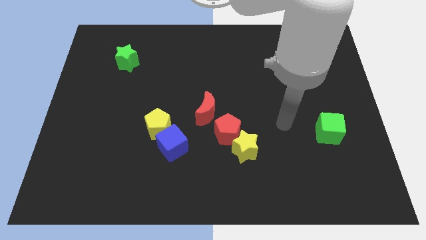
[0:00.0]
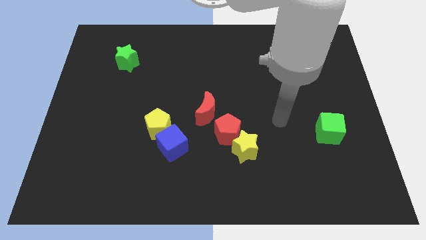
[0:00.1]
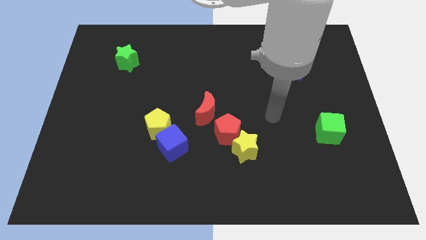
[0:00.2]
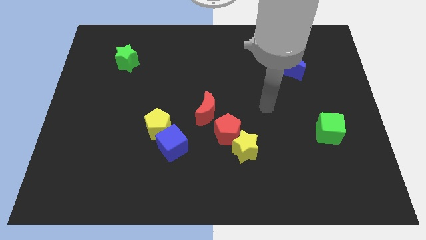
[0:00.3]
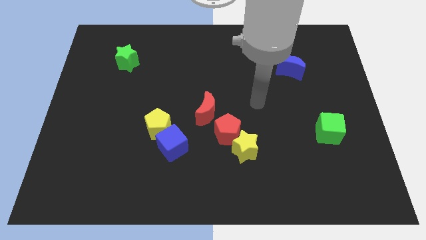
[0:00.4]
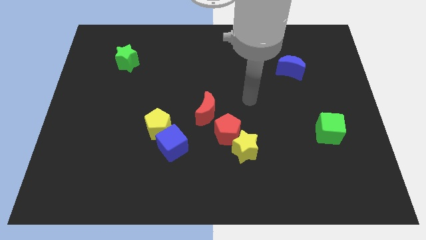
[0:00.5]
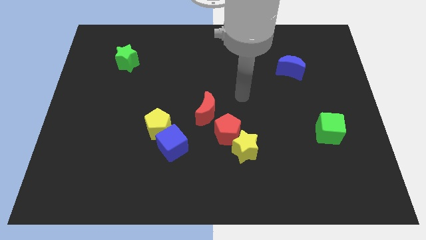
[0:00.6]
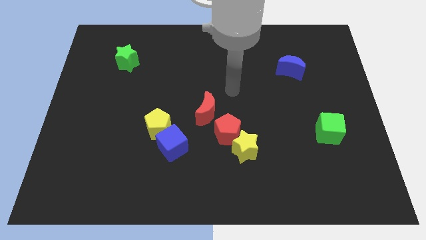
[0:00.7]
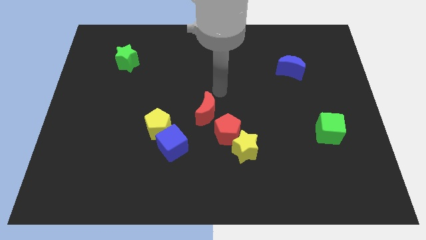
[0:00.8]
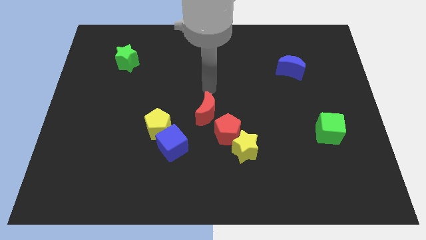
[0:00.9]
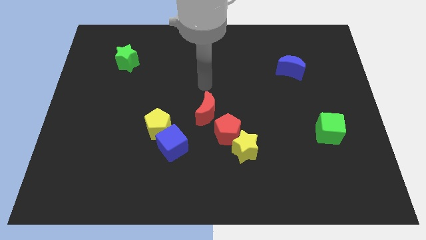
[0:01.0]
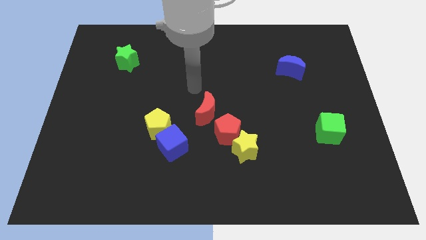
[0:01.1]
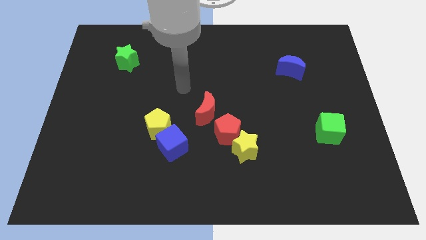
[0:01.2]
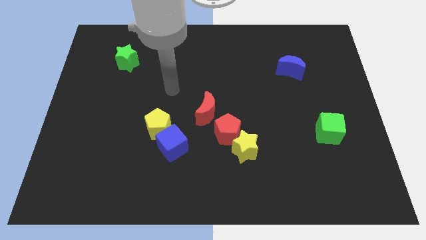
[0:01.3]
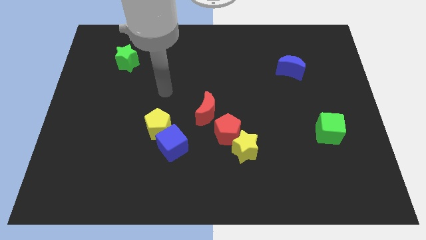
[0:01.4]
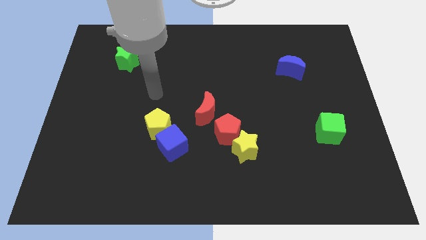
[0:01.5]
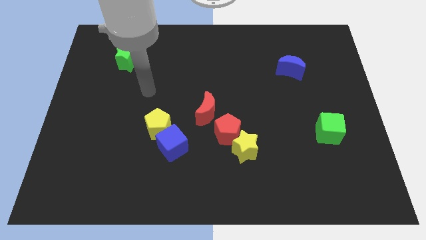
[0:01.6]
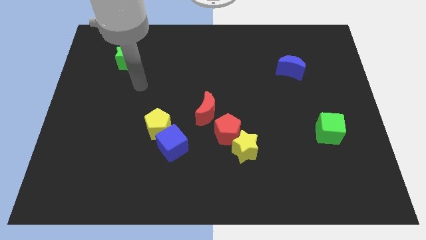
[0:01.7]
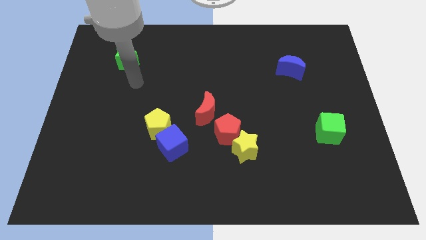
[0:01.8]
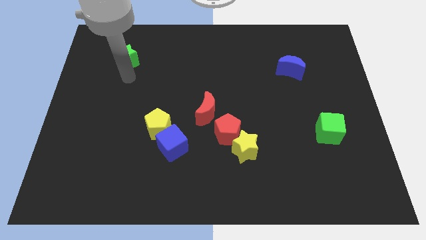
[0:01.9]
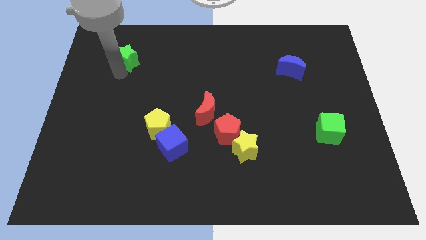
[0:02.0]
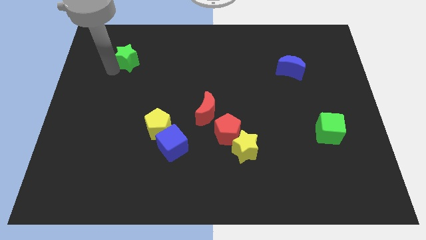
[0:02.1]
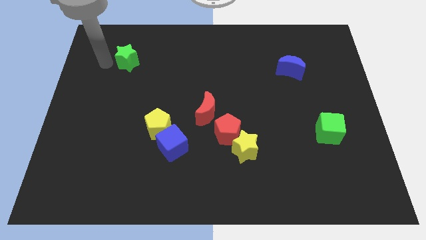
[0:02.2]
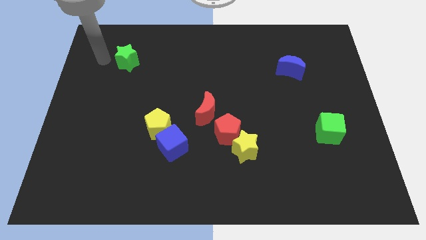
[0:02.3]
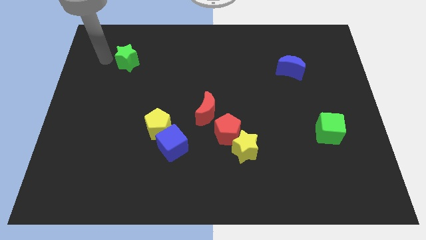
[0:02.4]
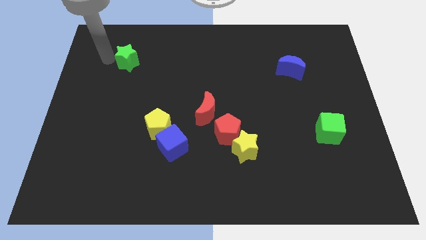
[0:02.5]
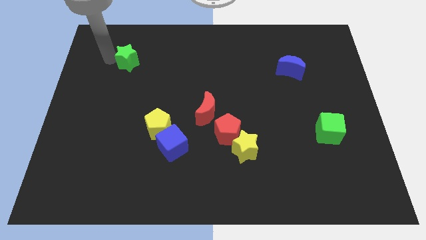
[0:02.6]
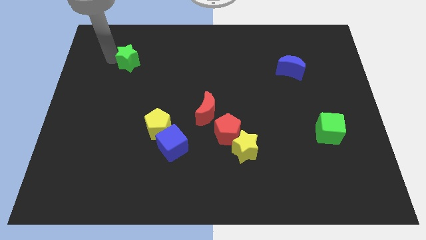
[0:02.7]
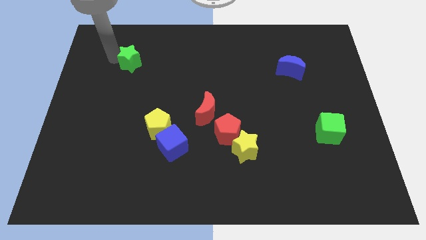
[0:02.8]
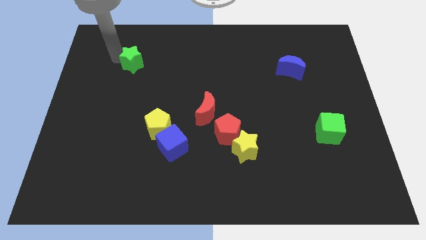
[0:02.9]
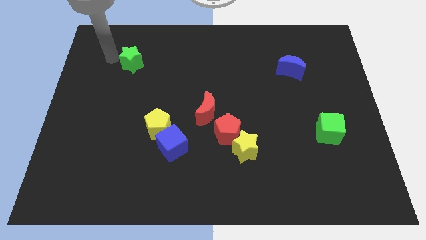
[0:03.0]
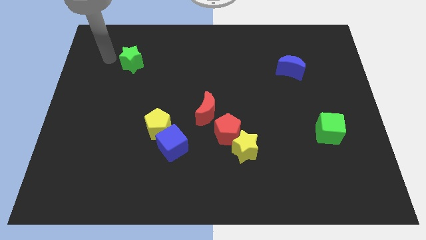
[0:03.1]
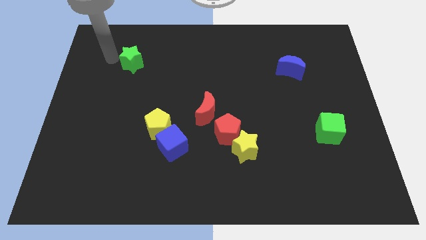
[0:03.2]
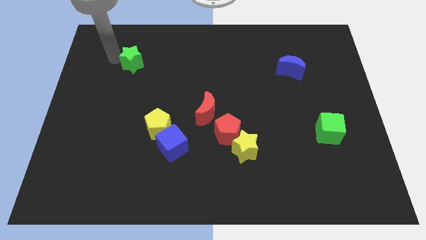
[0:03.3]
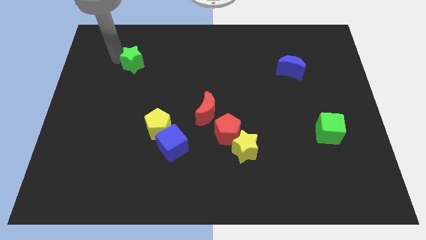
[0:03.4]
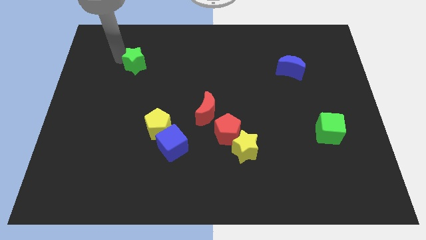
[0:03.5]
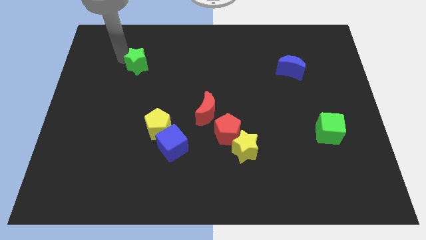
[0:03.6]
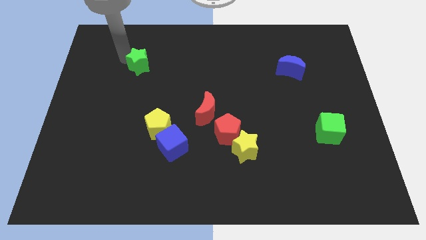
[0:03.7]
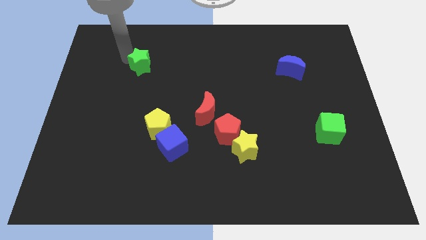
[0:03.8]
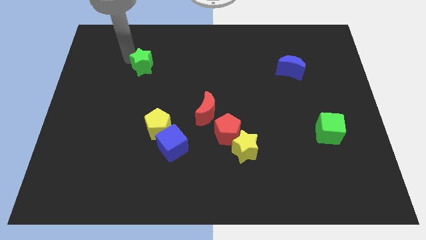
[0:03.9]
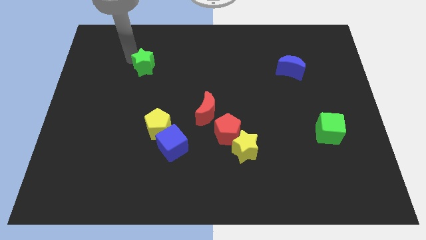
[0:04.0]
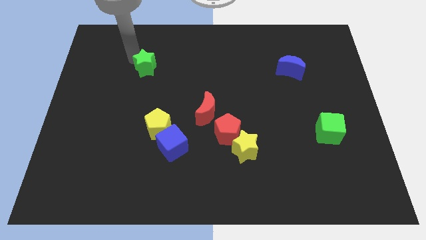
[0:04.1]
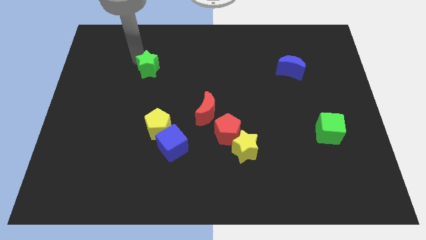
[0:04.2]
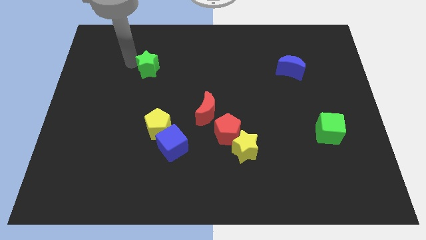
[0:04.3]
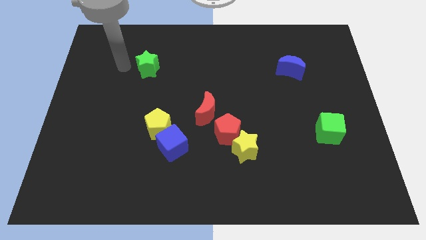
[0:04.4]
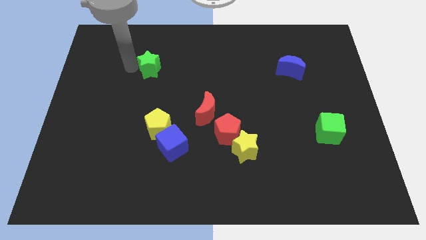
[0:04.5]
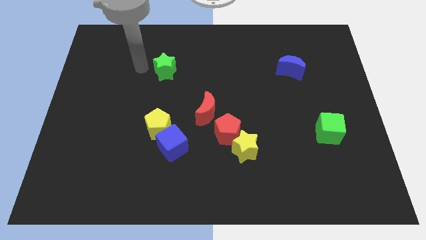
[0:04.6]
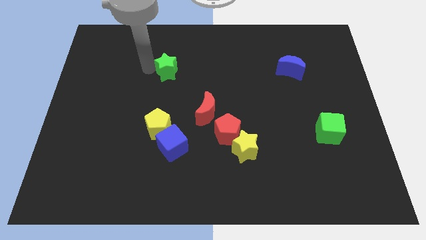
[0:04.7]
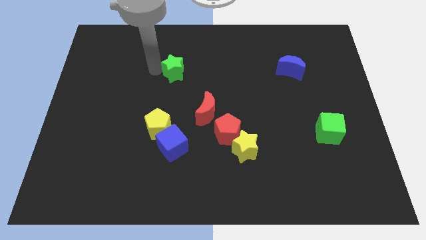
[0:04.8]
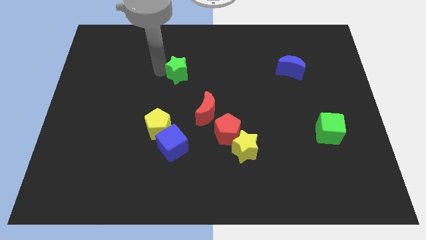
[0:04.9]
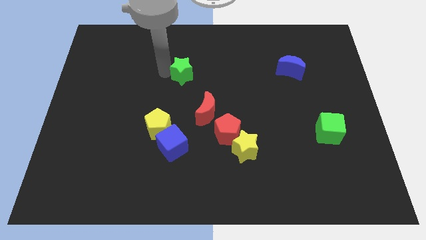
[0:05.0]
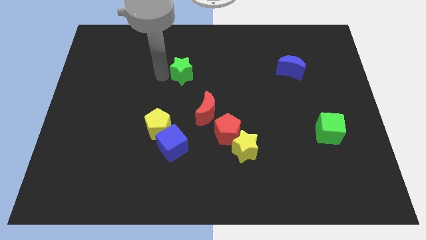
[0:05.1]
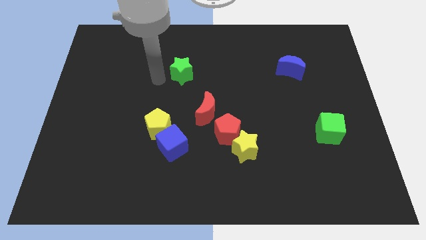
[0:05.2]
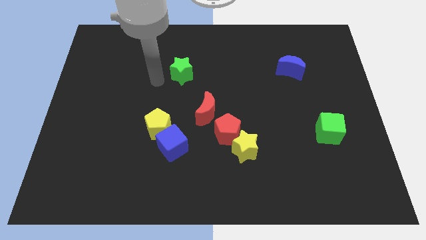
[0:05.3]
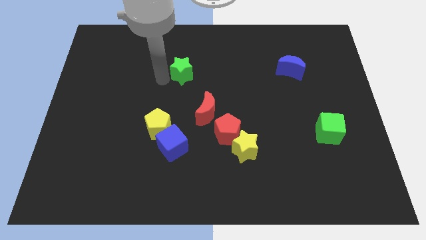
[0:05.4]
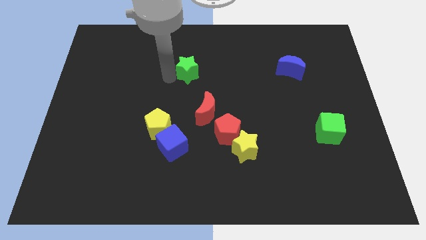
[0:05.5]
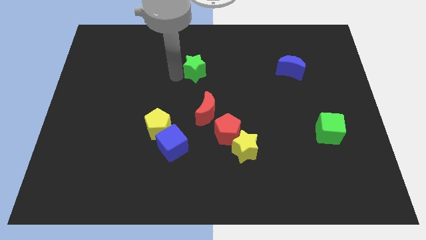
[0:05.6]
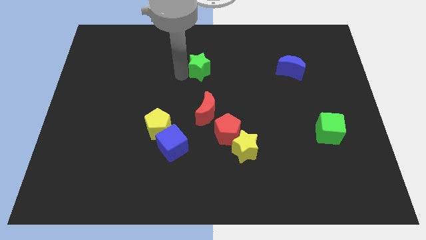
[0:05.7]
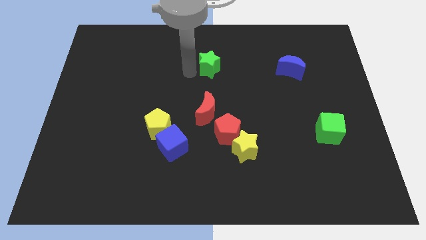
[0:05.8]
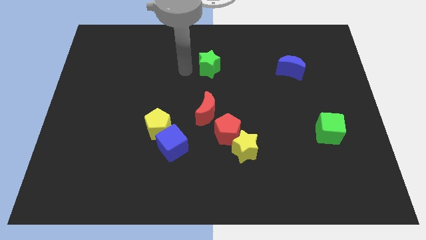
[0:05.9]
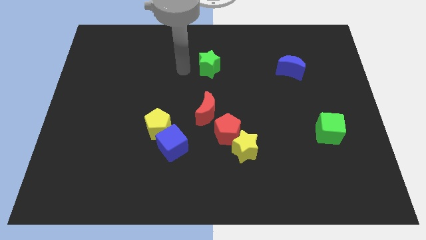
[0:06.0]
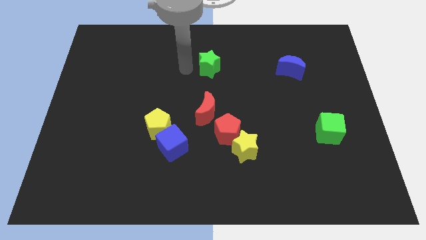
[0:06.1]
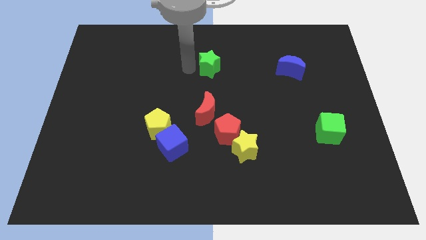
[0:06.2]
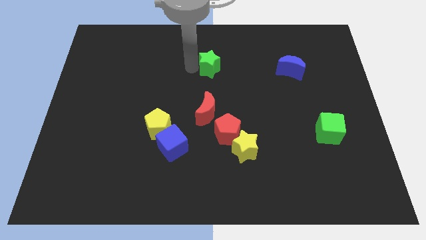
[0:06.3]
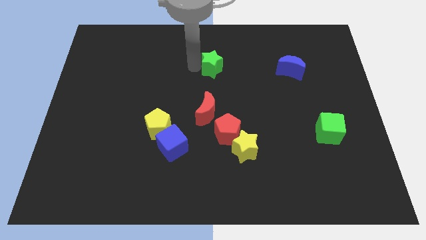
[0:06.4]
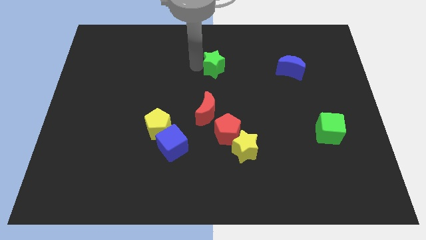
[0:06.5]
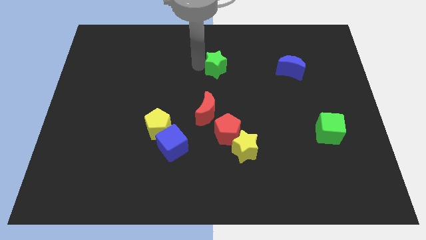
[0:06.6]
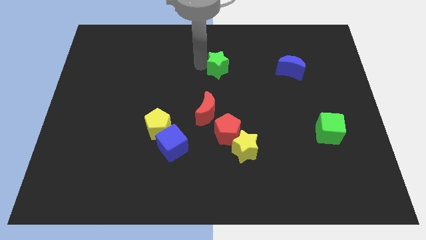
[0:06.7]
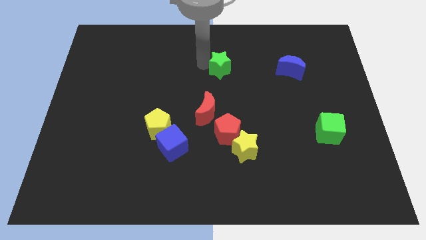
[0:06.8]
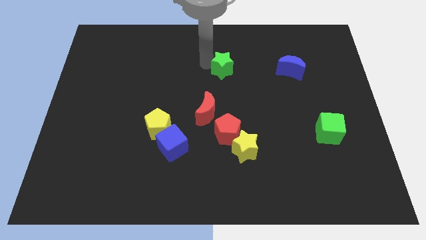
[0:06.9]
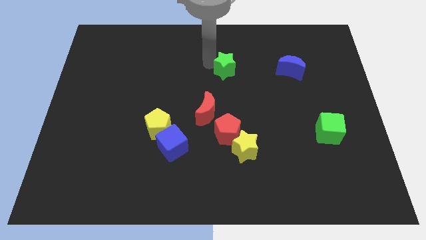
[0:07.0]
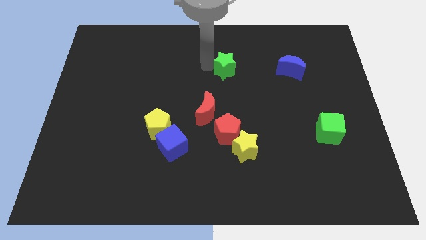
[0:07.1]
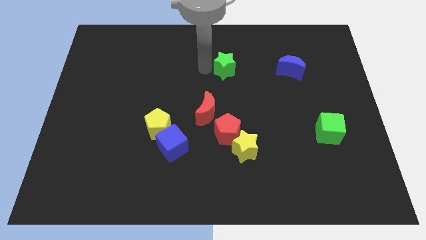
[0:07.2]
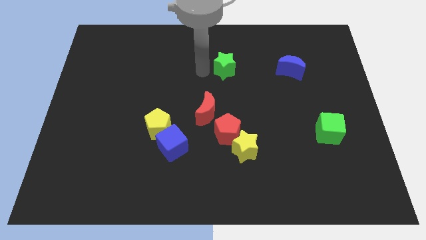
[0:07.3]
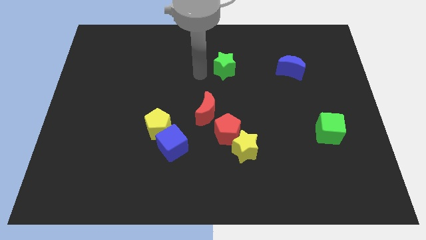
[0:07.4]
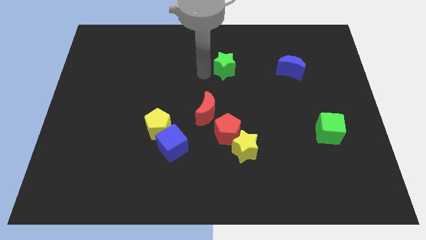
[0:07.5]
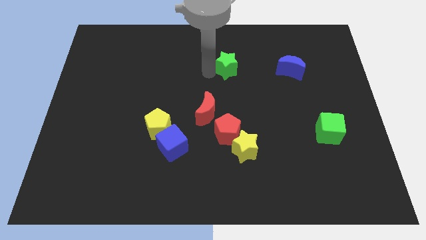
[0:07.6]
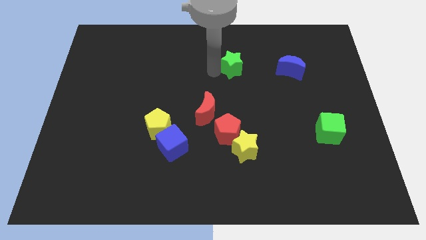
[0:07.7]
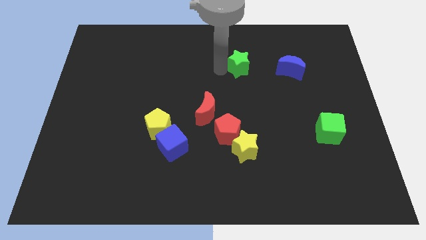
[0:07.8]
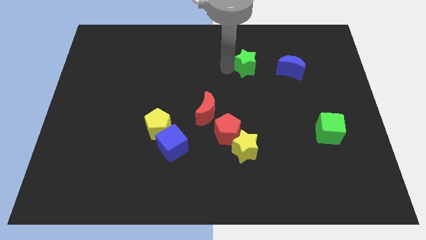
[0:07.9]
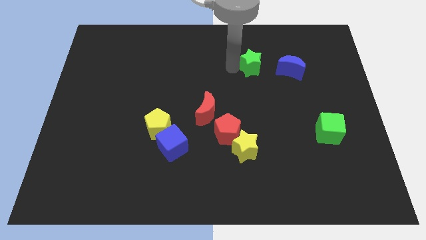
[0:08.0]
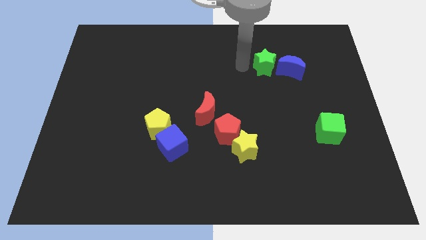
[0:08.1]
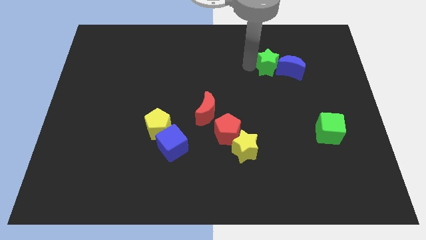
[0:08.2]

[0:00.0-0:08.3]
put the green star close to the blue moon
